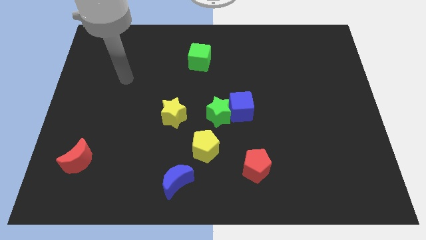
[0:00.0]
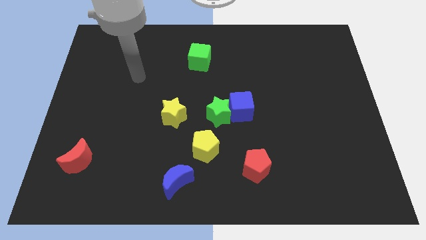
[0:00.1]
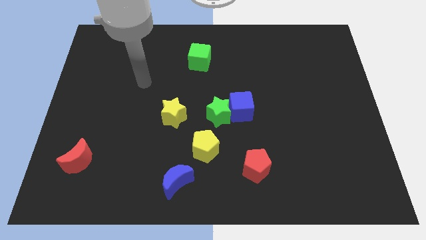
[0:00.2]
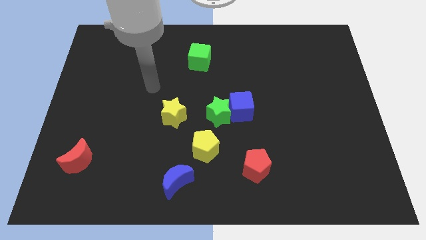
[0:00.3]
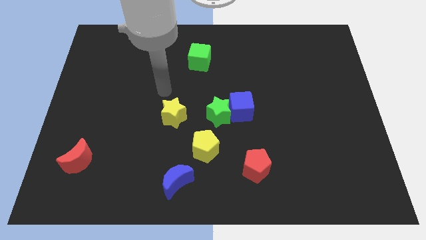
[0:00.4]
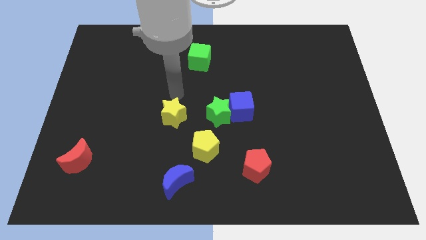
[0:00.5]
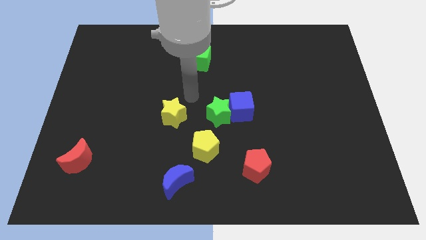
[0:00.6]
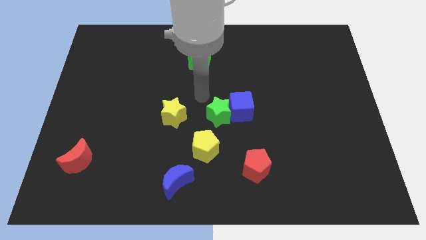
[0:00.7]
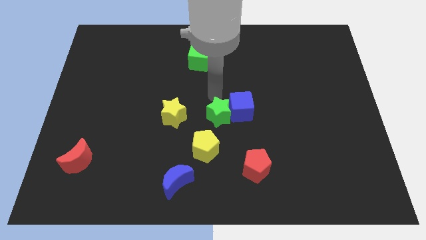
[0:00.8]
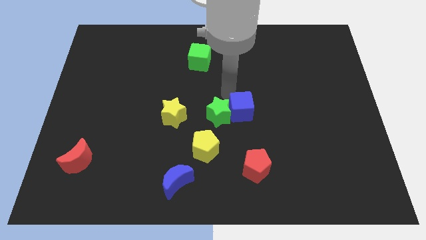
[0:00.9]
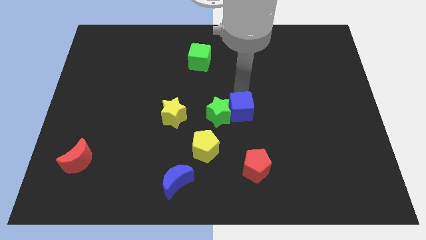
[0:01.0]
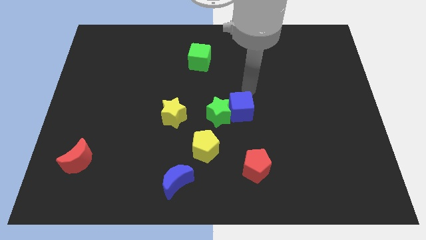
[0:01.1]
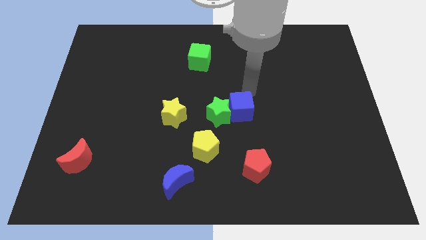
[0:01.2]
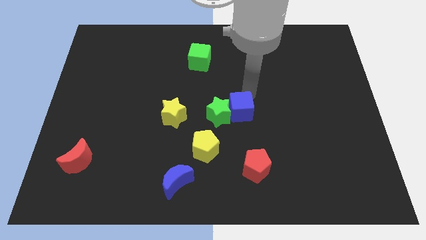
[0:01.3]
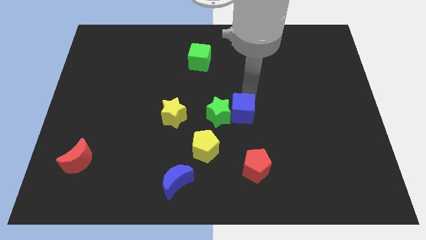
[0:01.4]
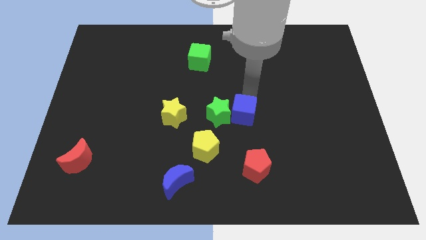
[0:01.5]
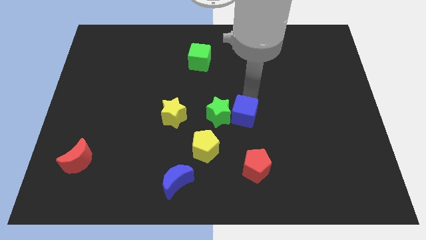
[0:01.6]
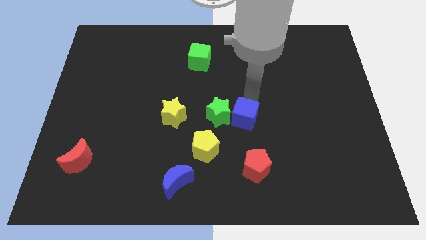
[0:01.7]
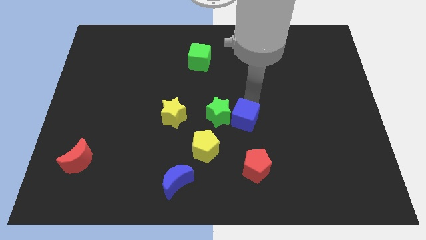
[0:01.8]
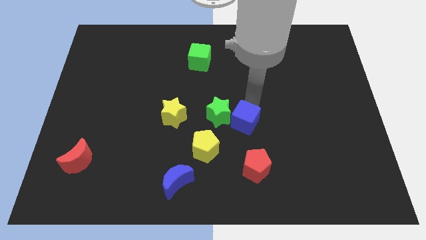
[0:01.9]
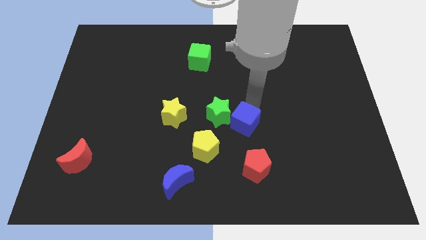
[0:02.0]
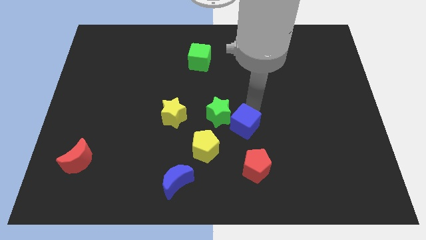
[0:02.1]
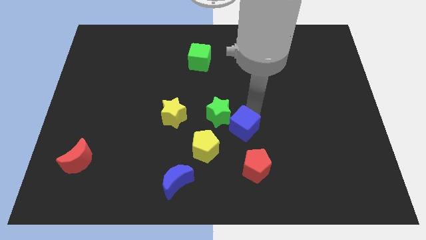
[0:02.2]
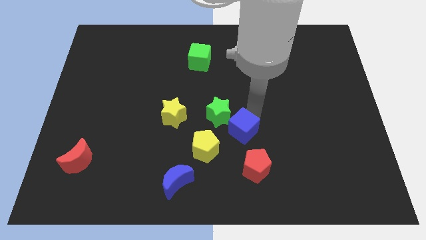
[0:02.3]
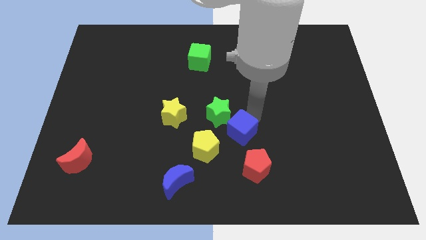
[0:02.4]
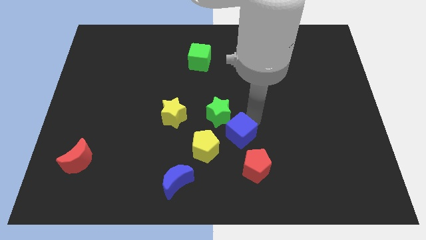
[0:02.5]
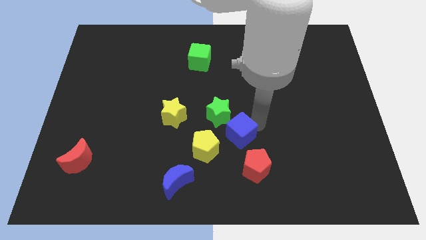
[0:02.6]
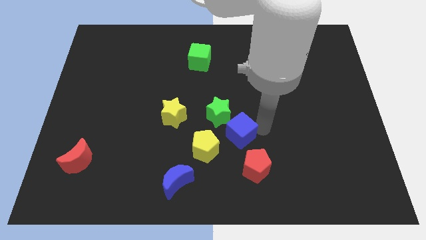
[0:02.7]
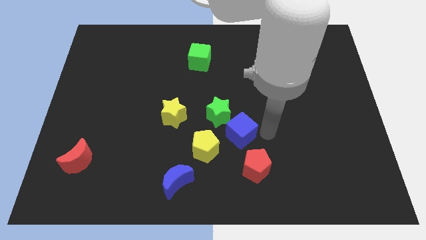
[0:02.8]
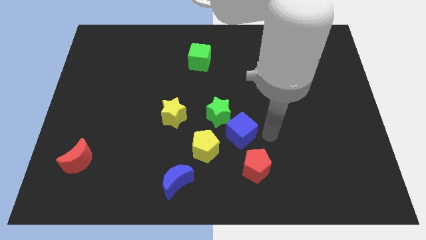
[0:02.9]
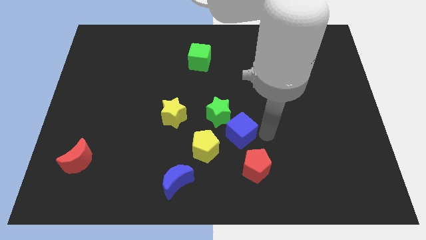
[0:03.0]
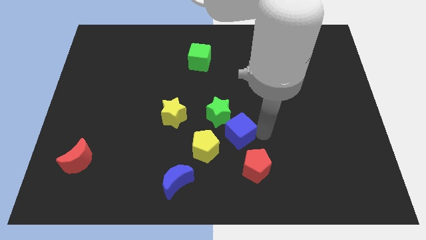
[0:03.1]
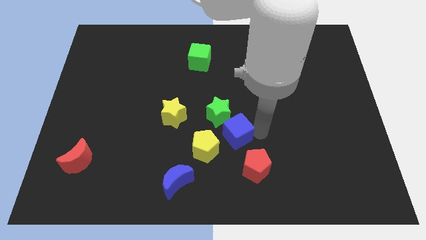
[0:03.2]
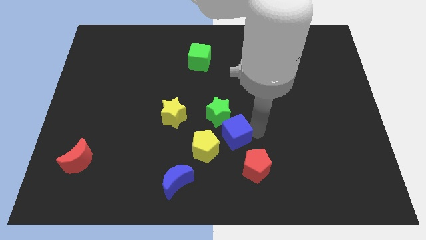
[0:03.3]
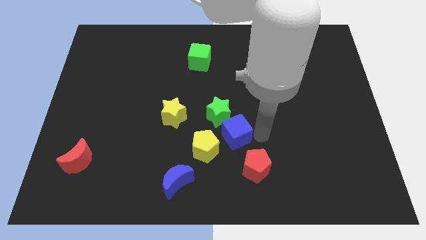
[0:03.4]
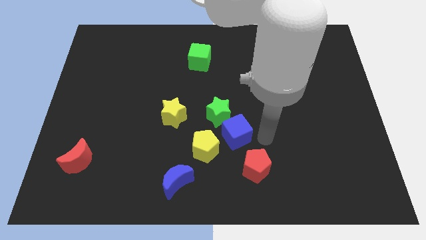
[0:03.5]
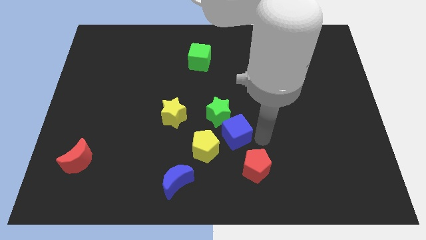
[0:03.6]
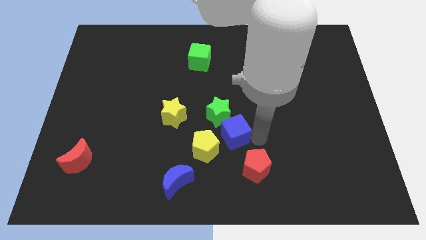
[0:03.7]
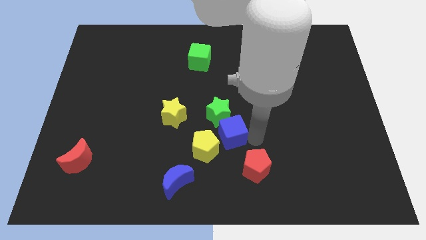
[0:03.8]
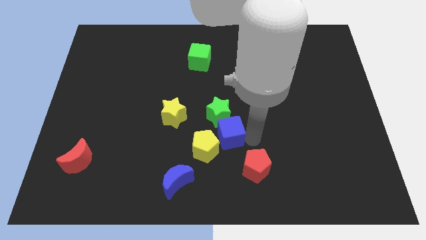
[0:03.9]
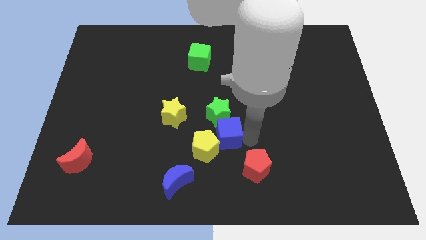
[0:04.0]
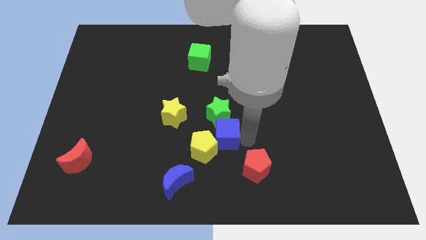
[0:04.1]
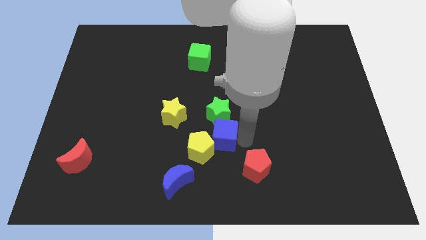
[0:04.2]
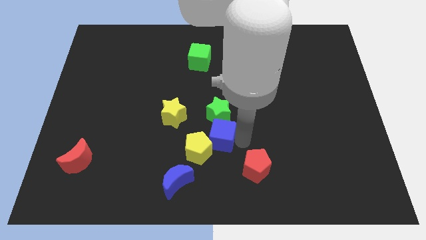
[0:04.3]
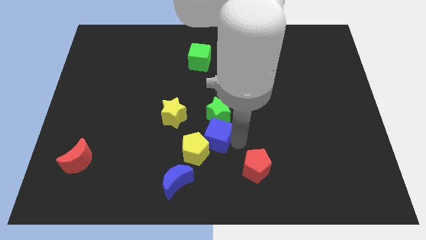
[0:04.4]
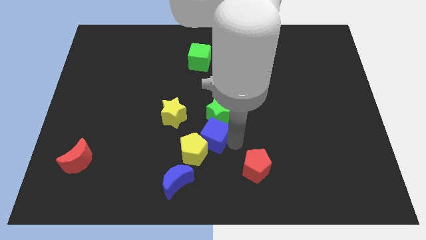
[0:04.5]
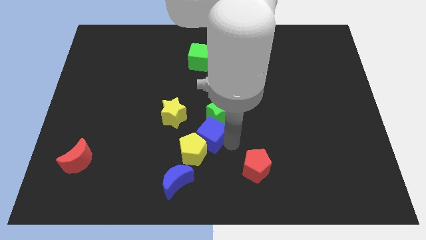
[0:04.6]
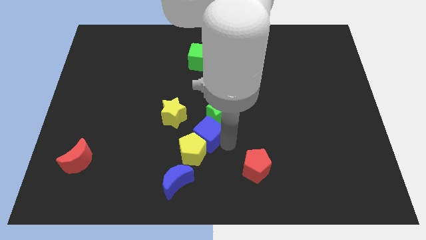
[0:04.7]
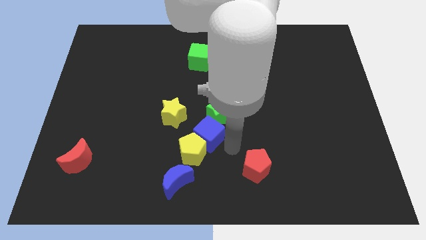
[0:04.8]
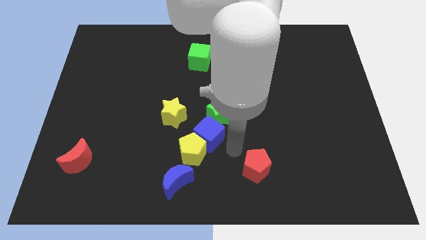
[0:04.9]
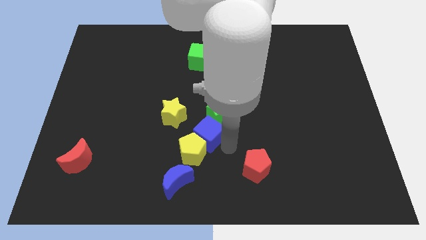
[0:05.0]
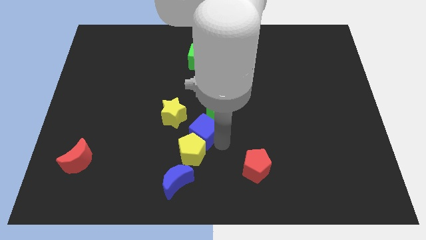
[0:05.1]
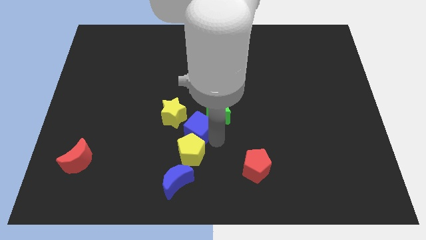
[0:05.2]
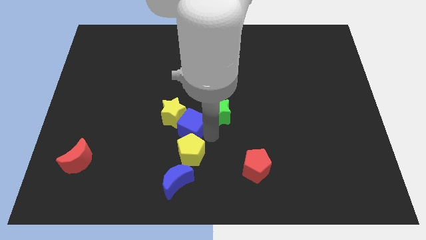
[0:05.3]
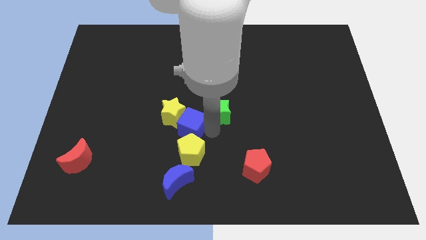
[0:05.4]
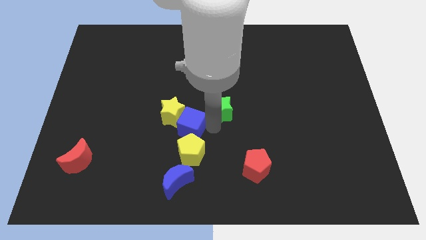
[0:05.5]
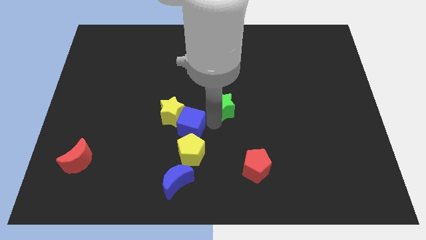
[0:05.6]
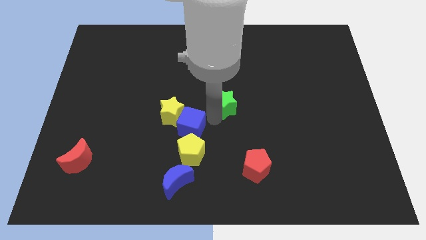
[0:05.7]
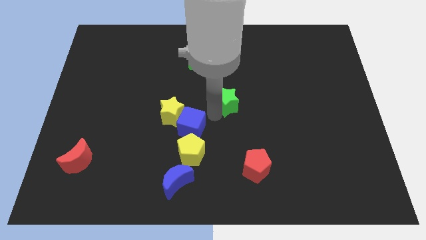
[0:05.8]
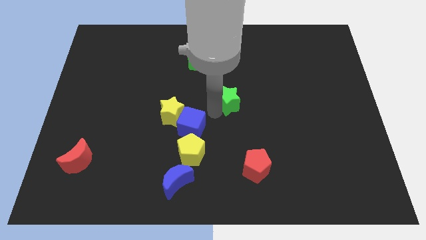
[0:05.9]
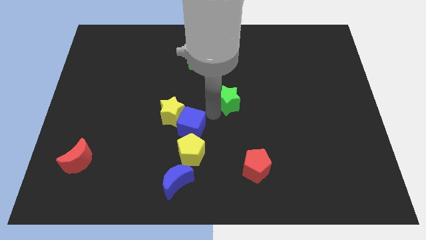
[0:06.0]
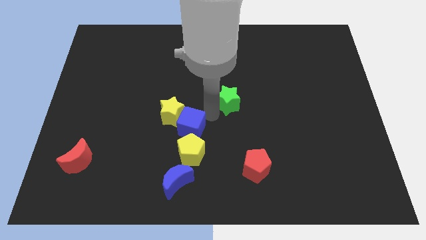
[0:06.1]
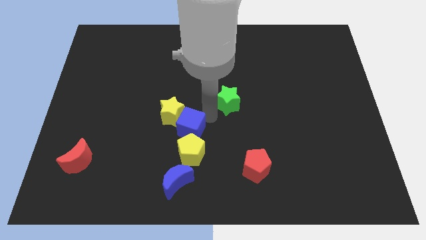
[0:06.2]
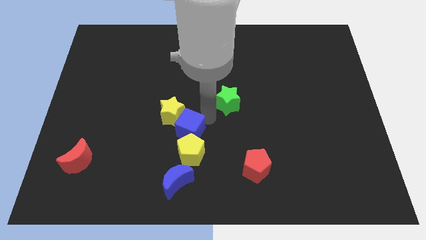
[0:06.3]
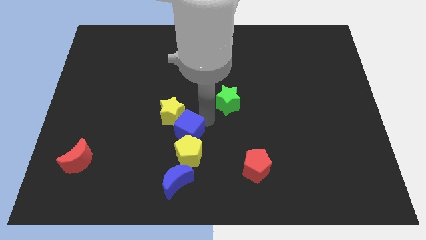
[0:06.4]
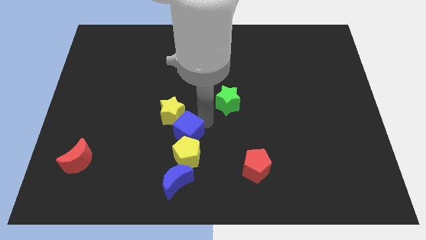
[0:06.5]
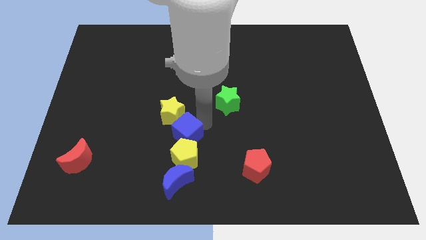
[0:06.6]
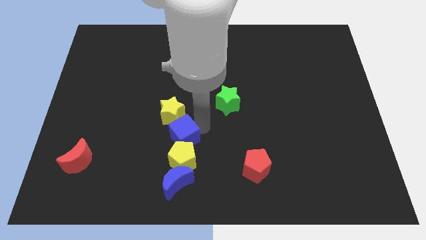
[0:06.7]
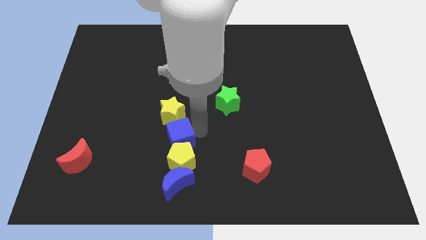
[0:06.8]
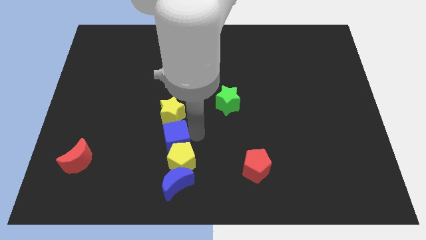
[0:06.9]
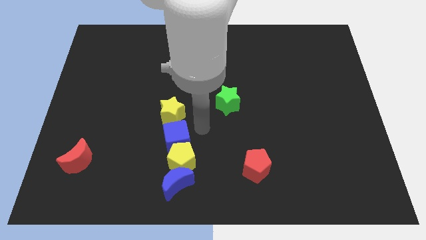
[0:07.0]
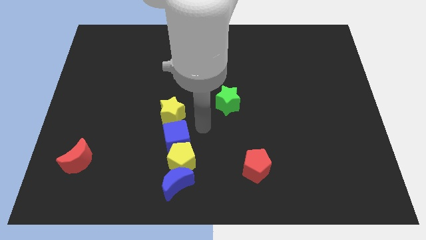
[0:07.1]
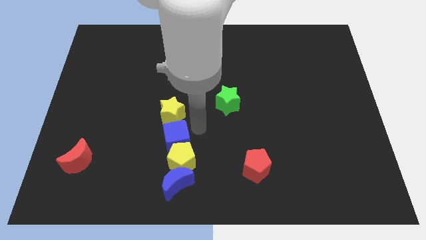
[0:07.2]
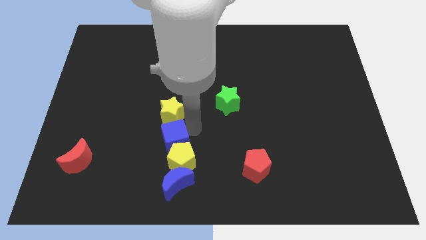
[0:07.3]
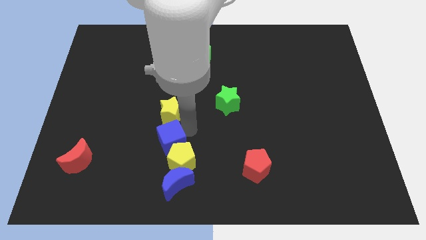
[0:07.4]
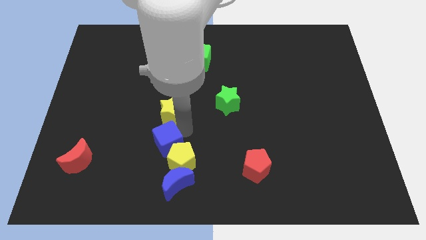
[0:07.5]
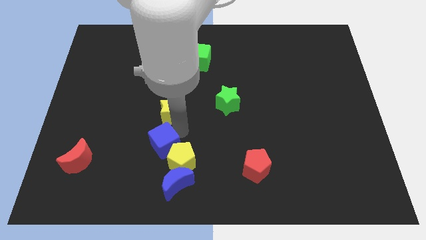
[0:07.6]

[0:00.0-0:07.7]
slide the blue cube just left of the yellow pentagon

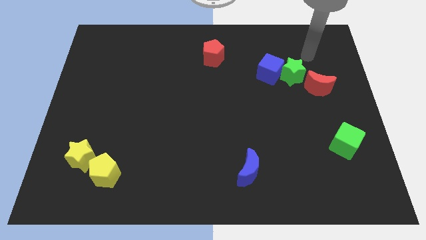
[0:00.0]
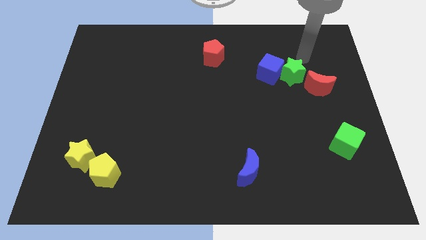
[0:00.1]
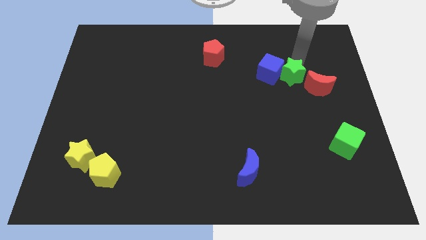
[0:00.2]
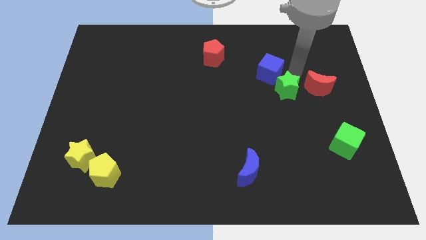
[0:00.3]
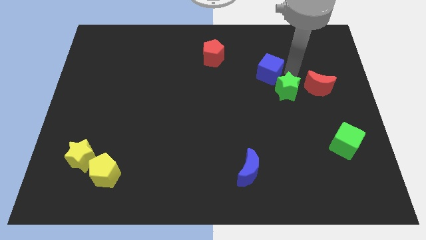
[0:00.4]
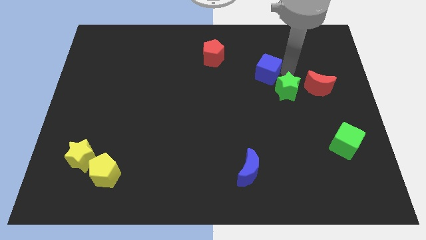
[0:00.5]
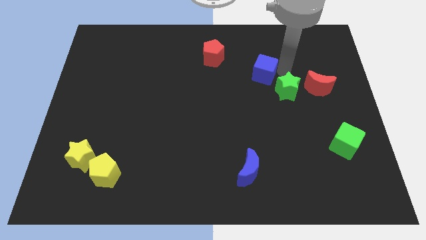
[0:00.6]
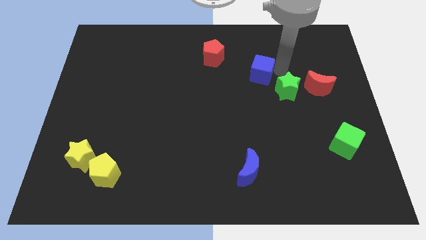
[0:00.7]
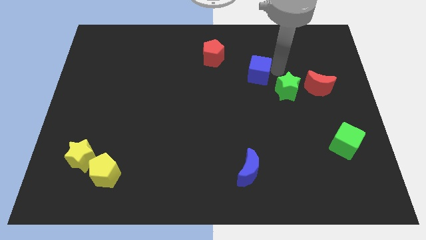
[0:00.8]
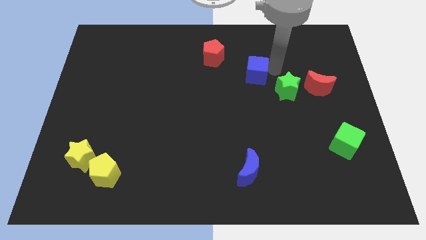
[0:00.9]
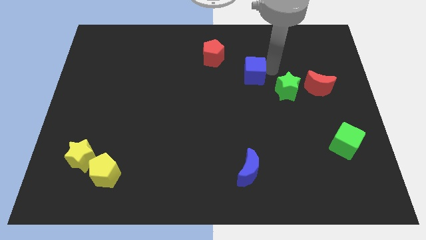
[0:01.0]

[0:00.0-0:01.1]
slide the blue cube diagonally down and to the right of the red pentagon
